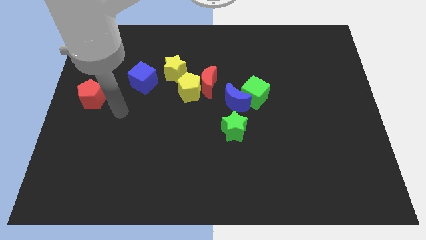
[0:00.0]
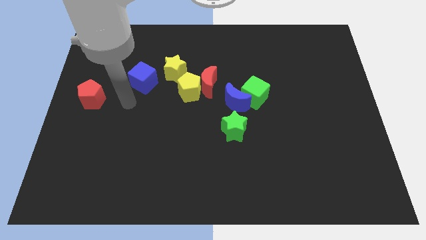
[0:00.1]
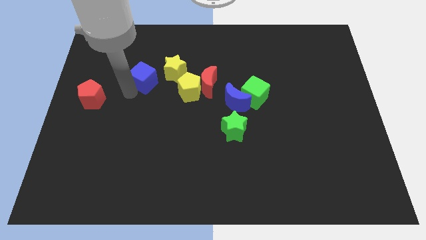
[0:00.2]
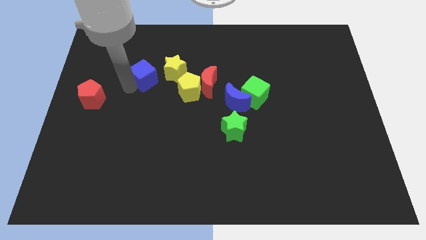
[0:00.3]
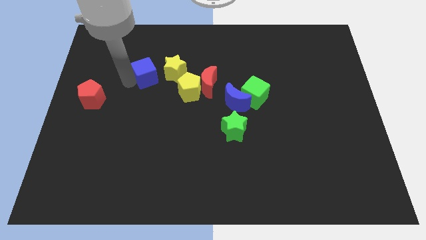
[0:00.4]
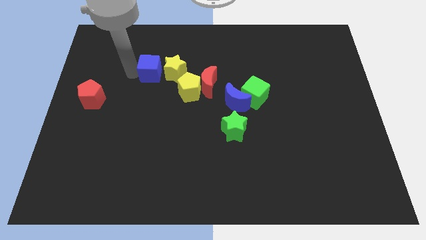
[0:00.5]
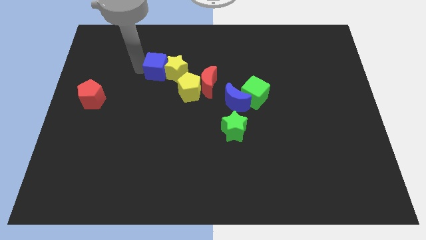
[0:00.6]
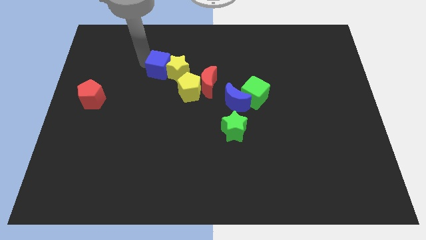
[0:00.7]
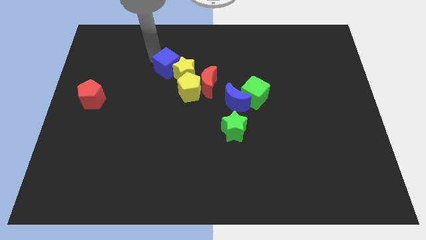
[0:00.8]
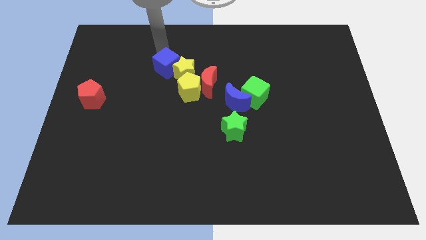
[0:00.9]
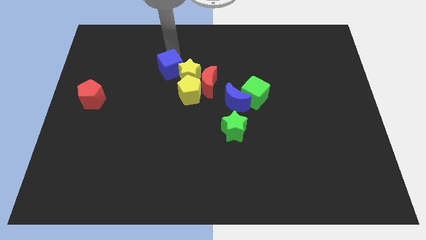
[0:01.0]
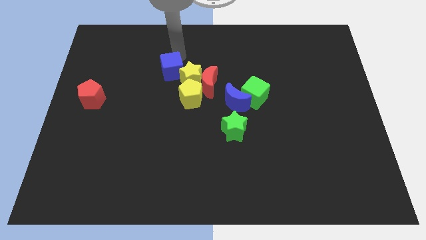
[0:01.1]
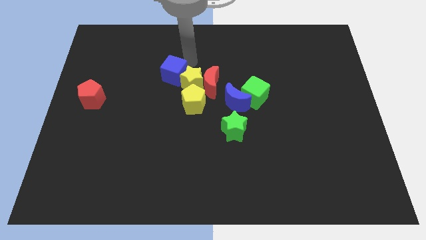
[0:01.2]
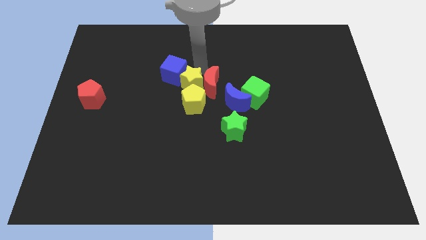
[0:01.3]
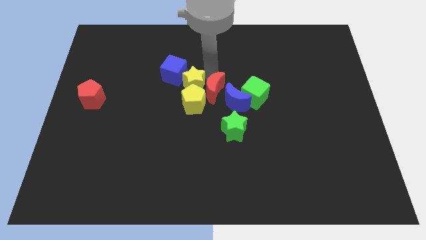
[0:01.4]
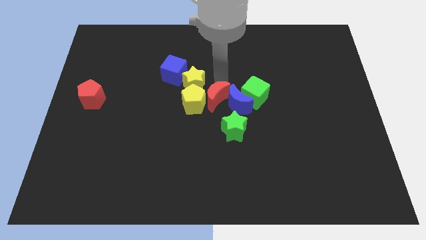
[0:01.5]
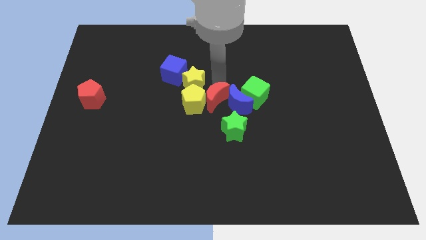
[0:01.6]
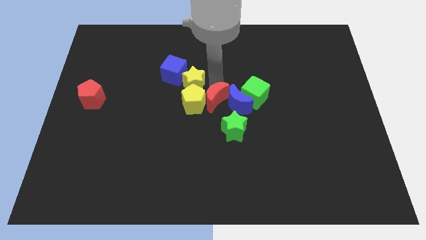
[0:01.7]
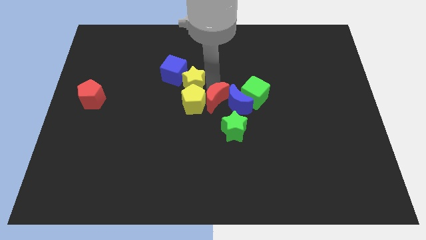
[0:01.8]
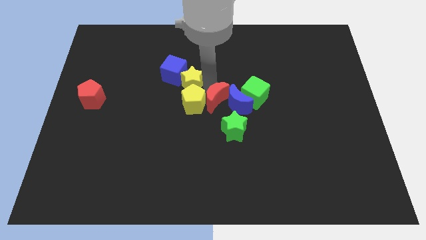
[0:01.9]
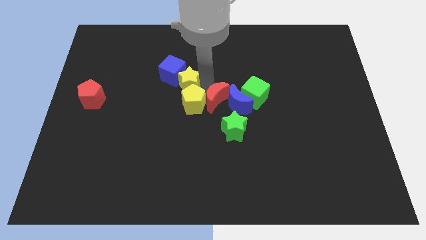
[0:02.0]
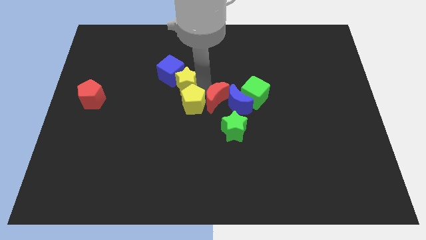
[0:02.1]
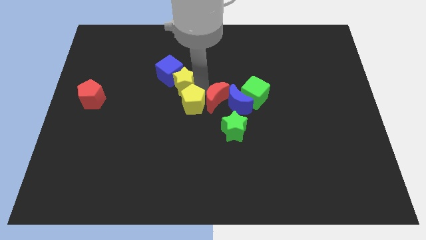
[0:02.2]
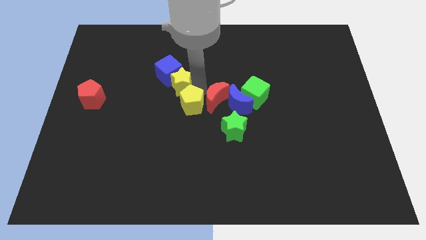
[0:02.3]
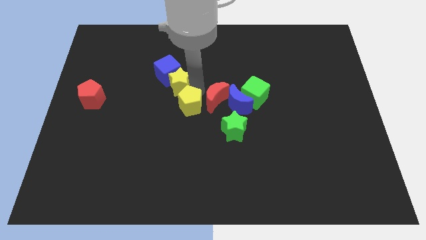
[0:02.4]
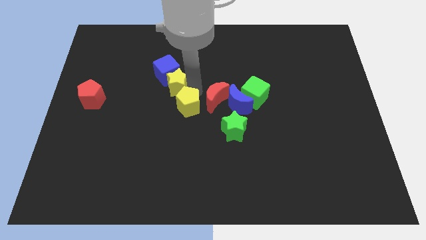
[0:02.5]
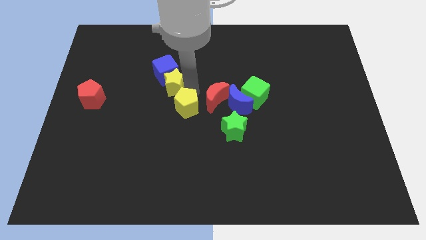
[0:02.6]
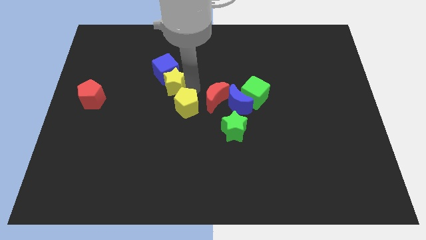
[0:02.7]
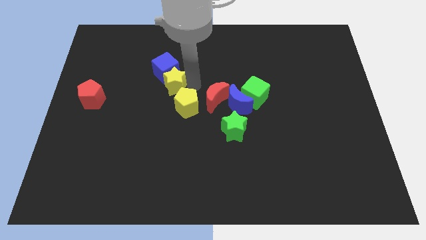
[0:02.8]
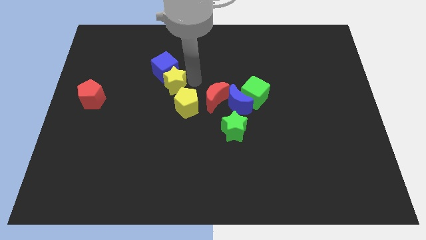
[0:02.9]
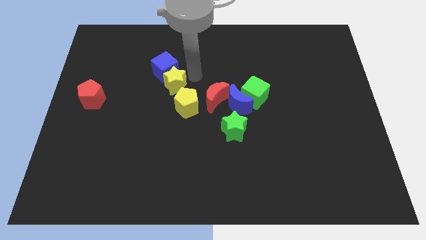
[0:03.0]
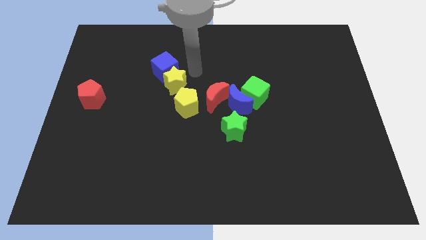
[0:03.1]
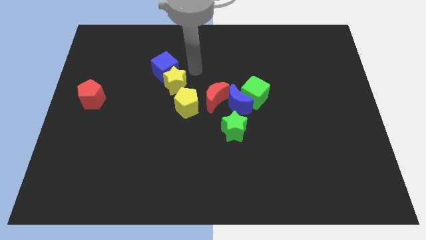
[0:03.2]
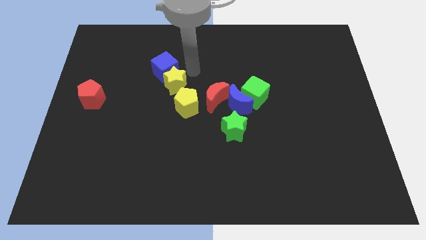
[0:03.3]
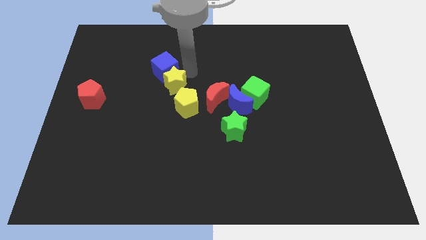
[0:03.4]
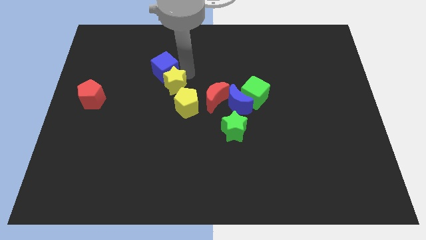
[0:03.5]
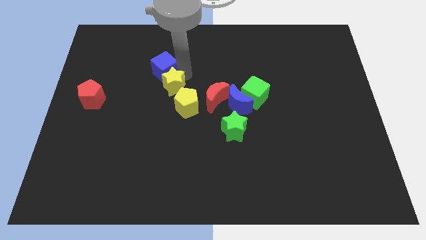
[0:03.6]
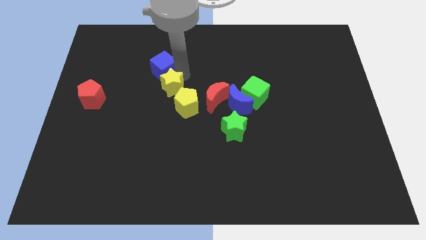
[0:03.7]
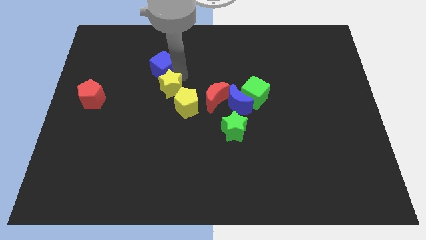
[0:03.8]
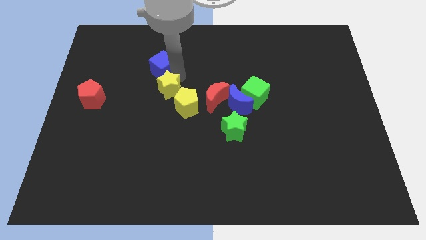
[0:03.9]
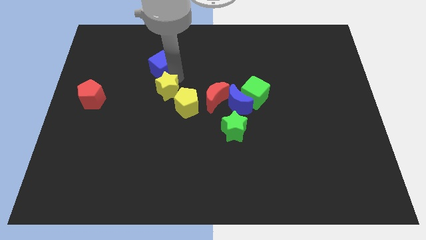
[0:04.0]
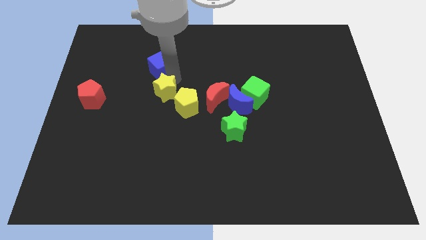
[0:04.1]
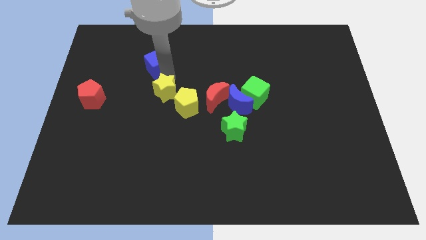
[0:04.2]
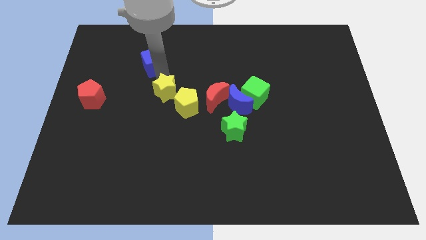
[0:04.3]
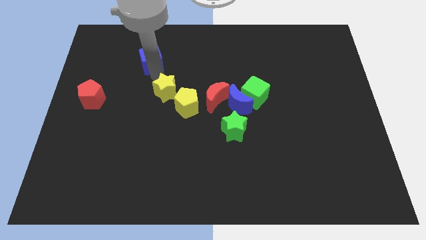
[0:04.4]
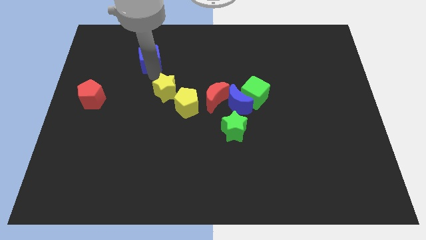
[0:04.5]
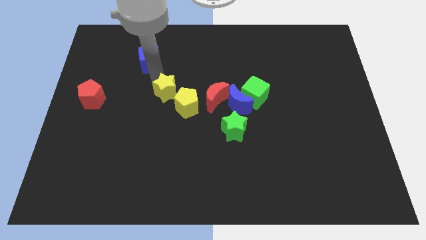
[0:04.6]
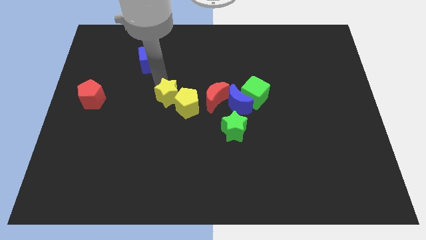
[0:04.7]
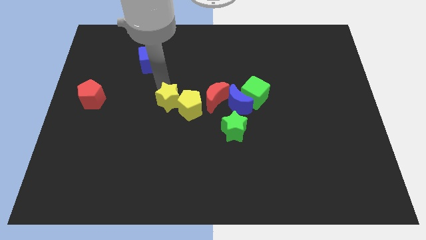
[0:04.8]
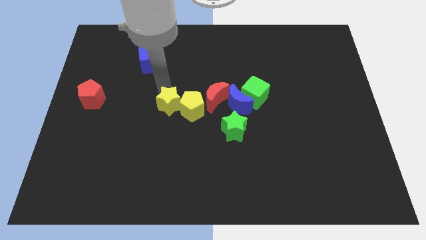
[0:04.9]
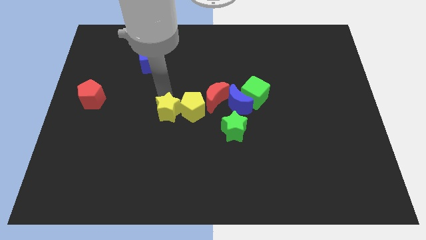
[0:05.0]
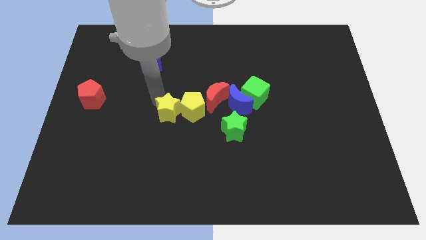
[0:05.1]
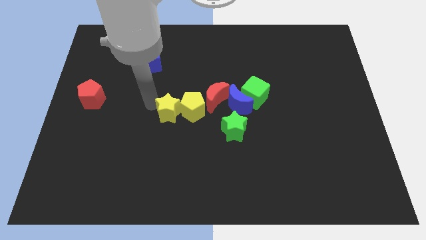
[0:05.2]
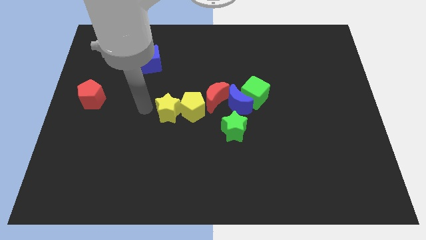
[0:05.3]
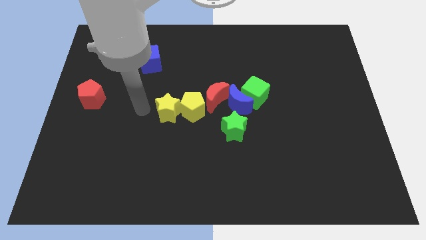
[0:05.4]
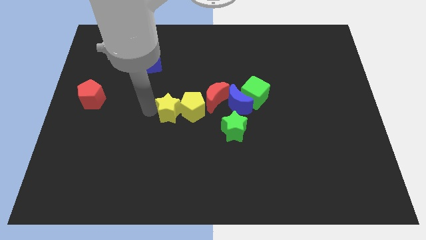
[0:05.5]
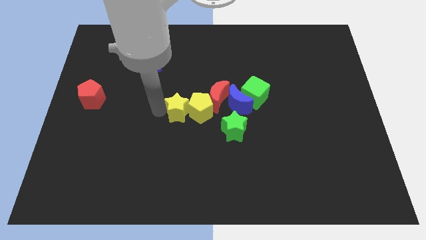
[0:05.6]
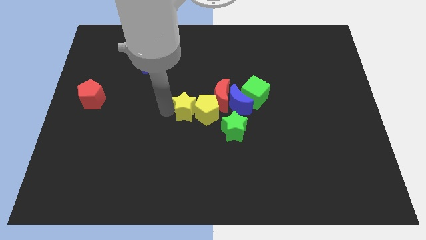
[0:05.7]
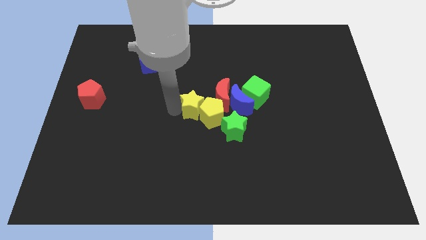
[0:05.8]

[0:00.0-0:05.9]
move the yellow star diagonally up and to the left of the green star

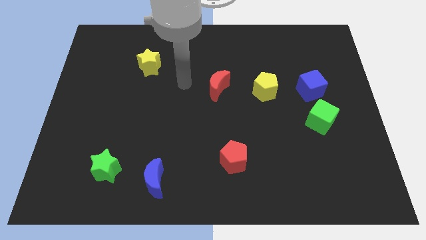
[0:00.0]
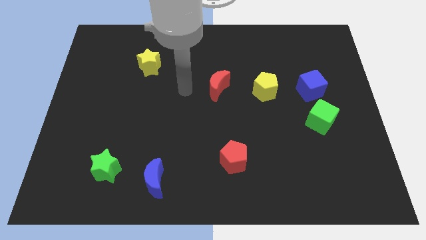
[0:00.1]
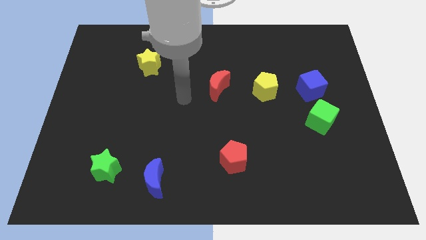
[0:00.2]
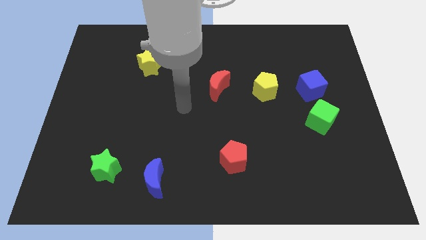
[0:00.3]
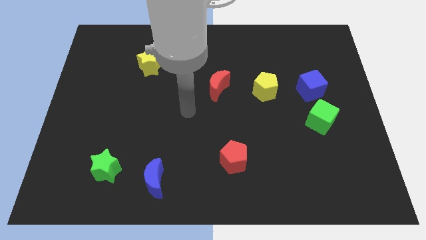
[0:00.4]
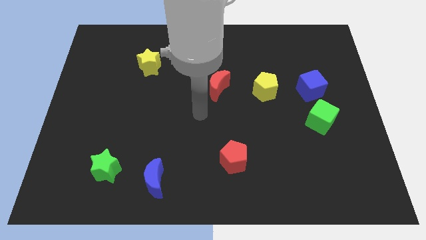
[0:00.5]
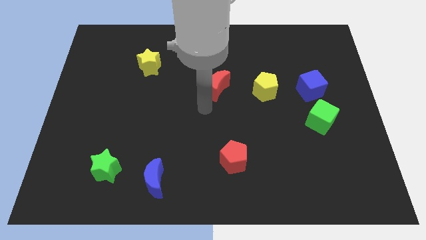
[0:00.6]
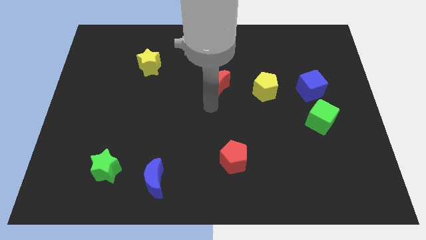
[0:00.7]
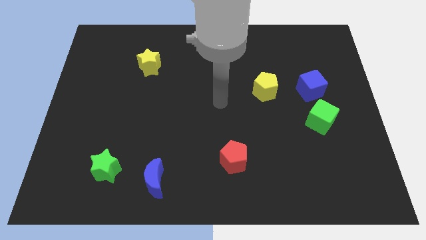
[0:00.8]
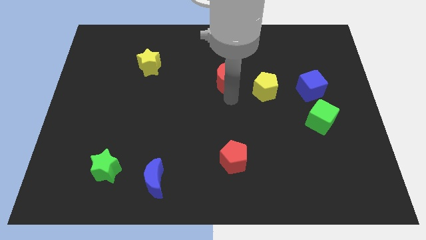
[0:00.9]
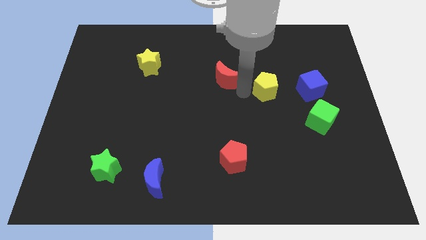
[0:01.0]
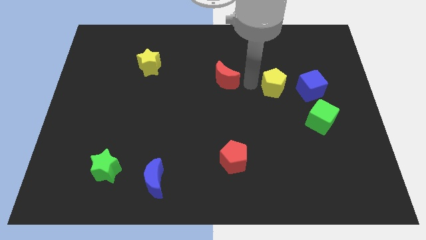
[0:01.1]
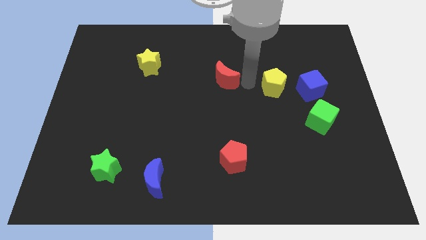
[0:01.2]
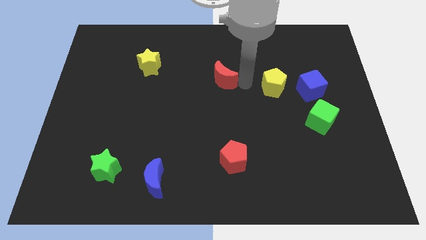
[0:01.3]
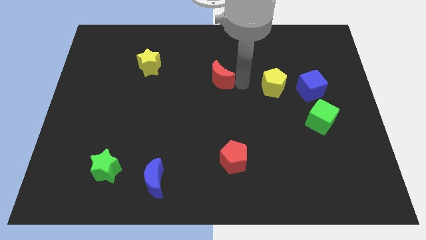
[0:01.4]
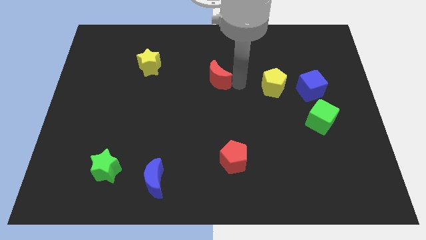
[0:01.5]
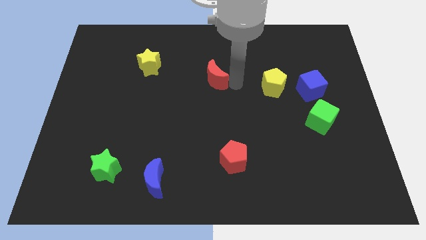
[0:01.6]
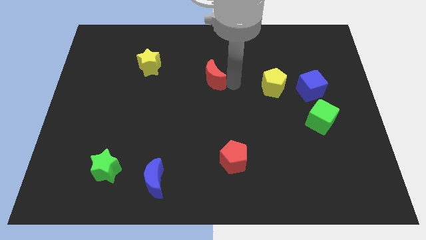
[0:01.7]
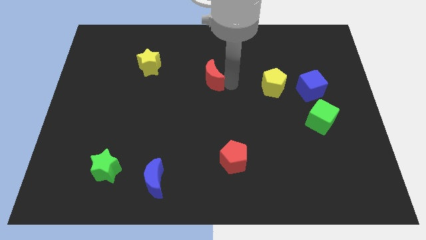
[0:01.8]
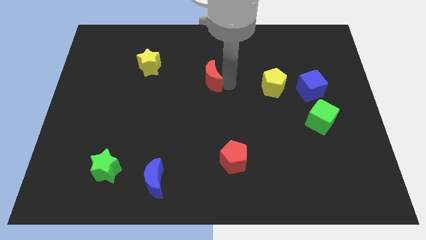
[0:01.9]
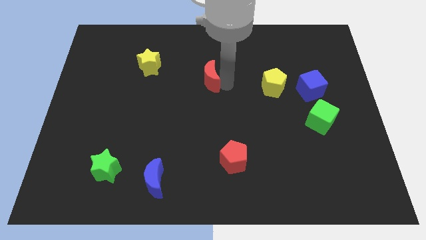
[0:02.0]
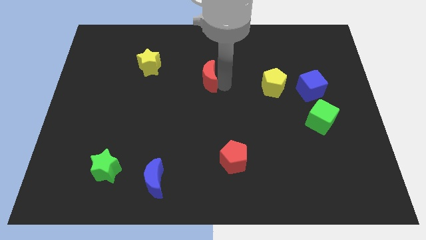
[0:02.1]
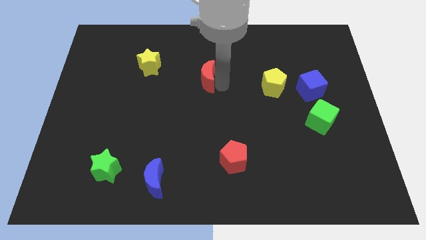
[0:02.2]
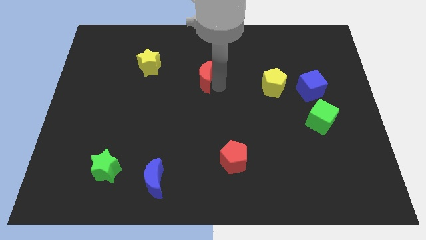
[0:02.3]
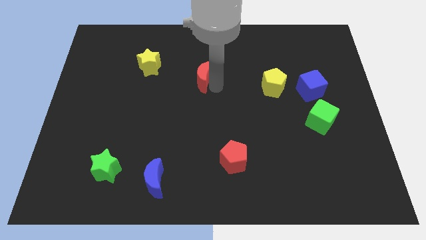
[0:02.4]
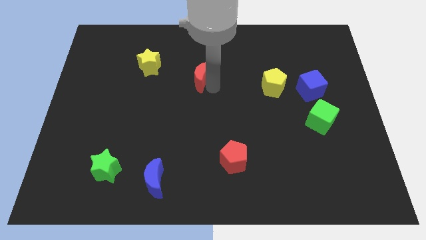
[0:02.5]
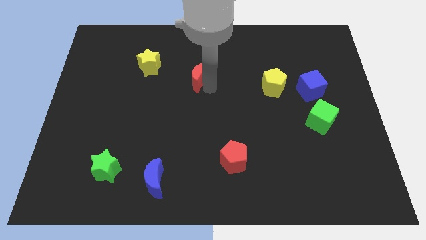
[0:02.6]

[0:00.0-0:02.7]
put the red moon to the right side of the yellow star
